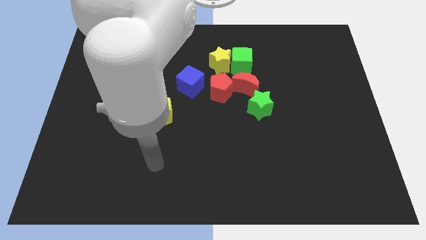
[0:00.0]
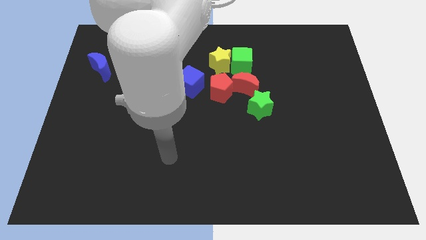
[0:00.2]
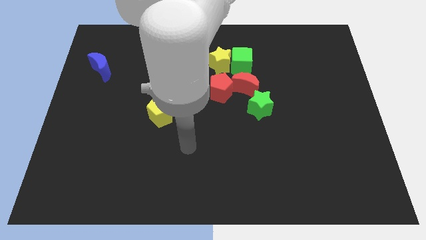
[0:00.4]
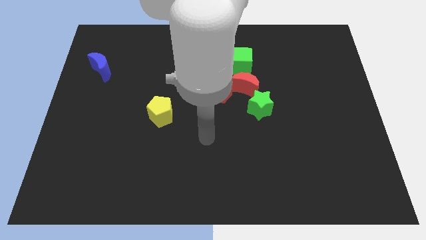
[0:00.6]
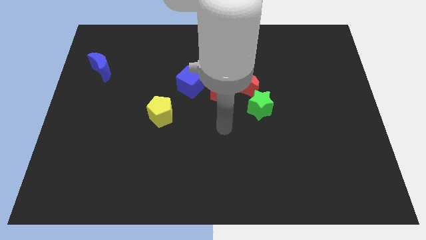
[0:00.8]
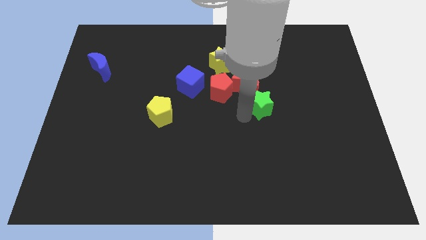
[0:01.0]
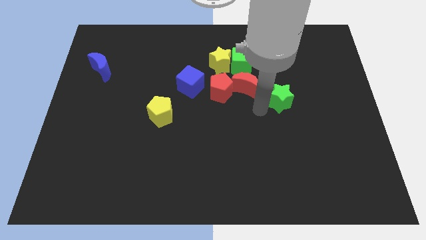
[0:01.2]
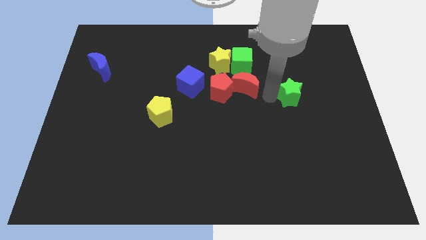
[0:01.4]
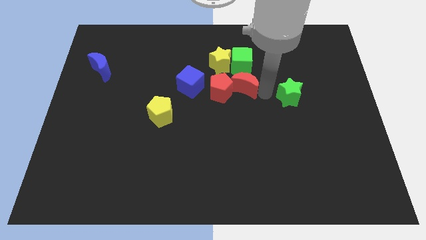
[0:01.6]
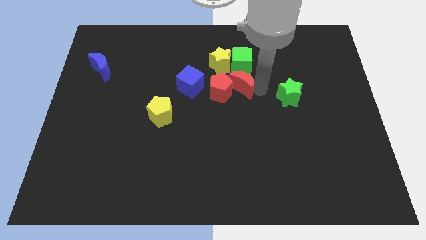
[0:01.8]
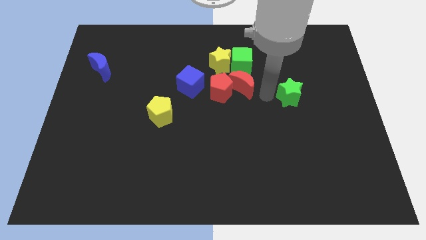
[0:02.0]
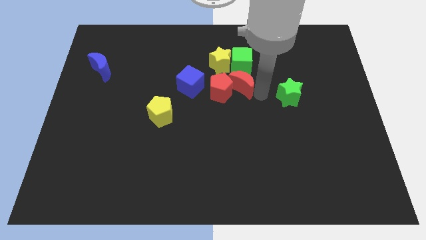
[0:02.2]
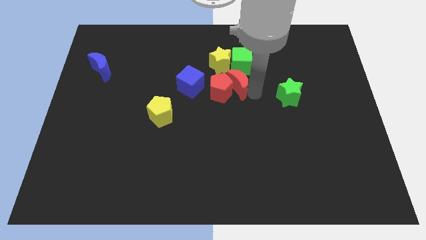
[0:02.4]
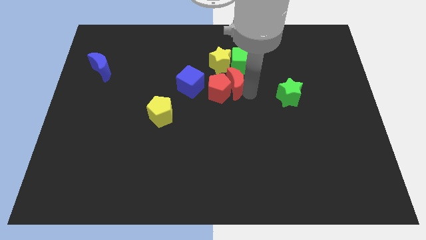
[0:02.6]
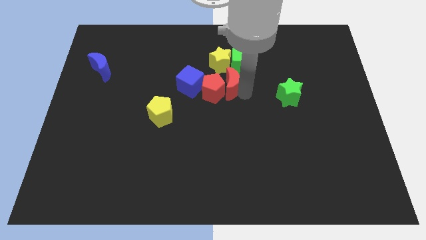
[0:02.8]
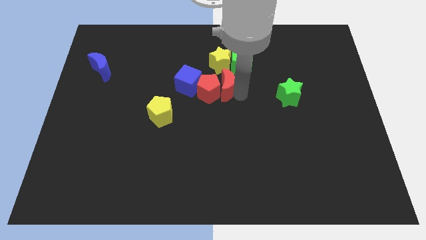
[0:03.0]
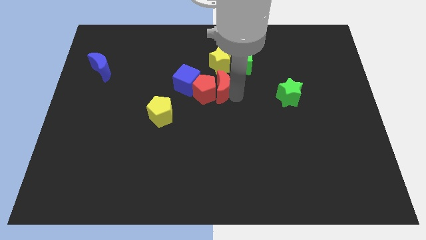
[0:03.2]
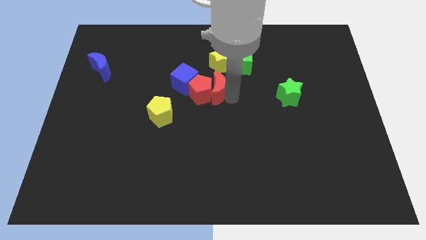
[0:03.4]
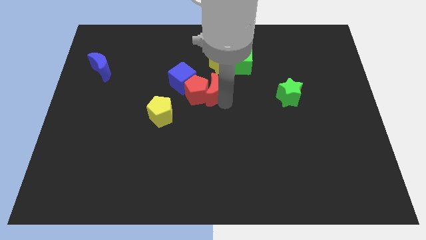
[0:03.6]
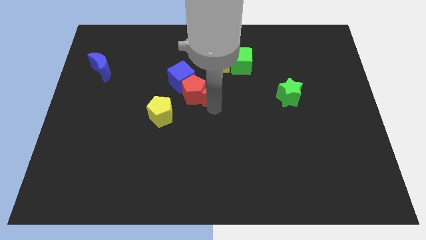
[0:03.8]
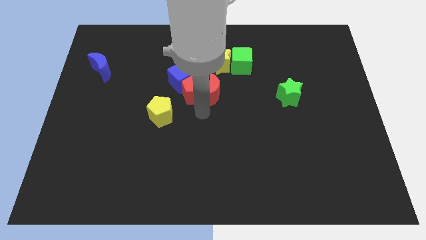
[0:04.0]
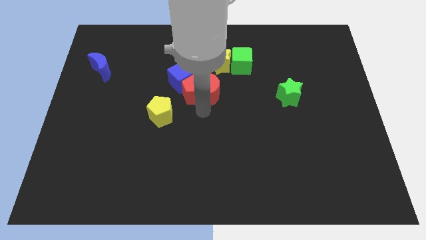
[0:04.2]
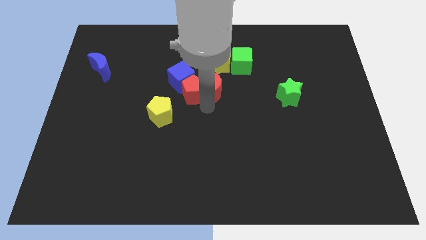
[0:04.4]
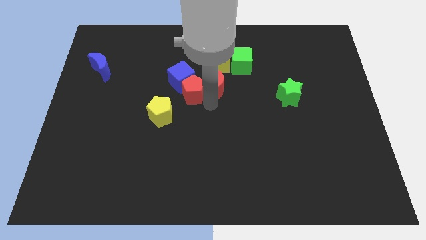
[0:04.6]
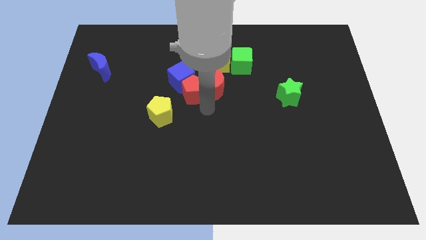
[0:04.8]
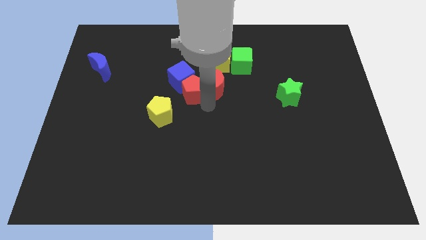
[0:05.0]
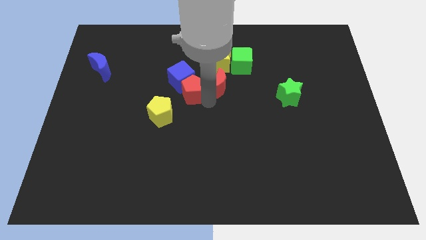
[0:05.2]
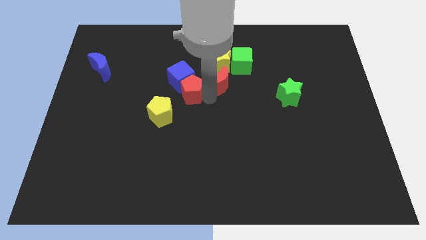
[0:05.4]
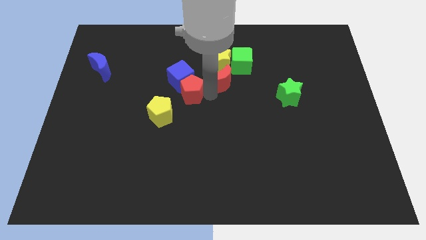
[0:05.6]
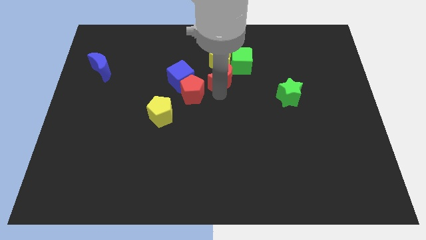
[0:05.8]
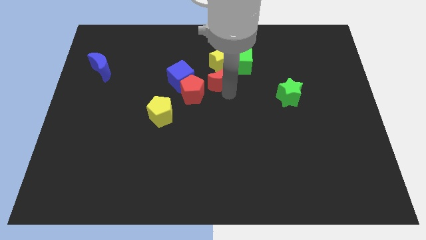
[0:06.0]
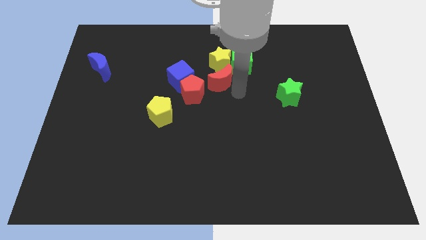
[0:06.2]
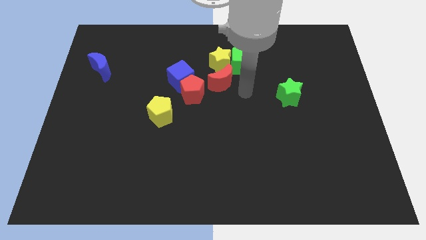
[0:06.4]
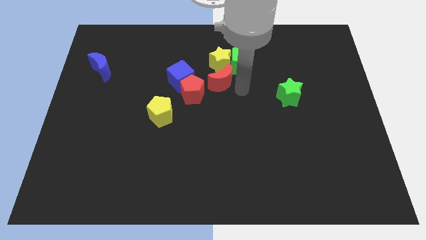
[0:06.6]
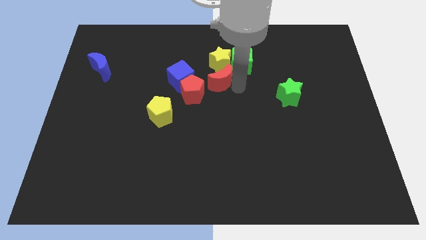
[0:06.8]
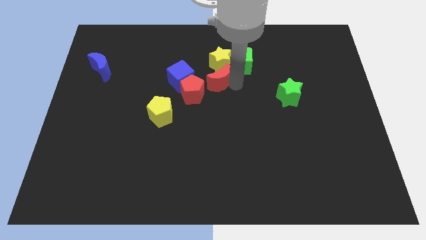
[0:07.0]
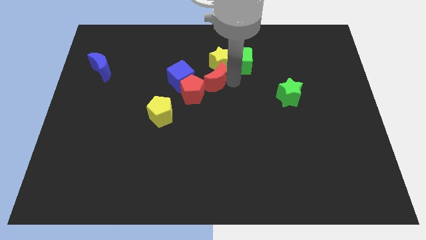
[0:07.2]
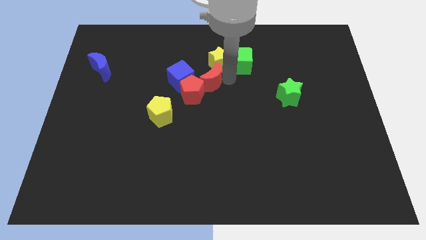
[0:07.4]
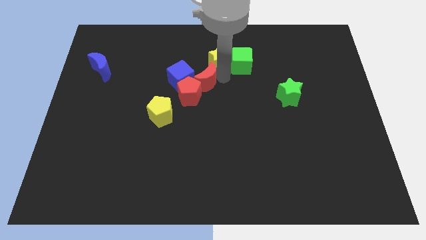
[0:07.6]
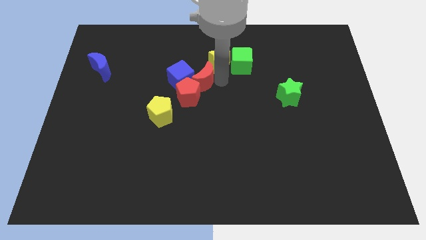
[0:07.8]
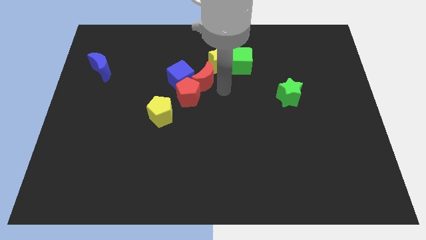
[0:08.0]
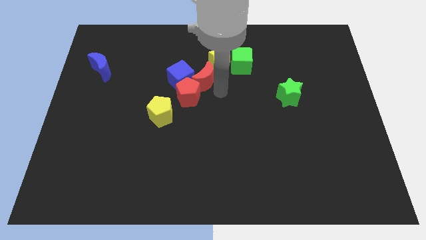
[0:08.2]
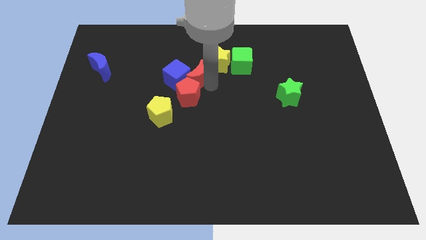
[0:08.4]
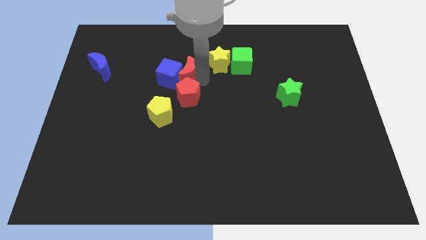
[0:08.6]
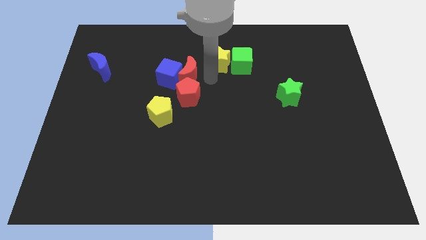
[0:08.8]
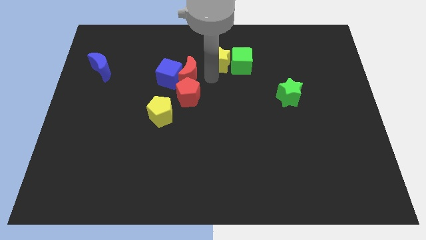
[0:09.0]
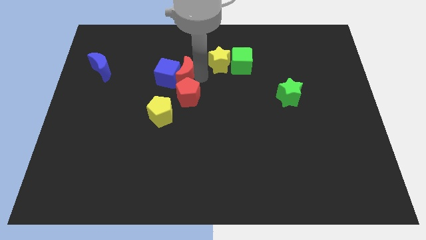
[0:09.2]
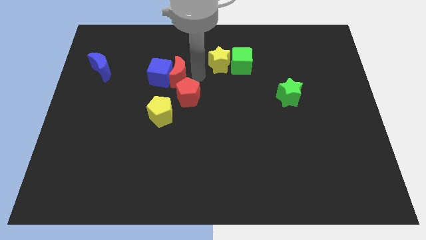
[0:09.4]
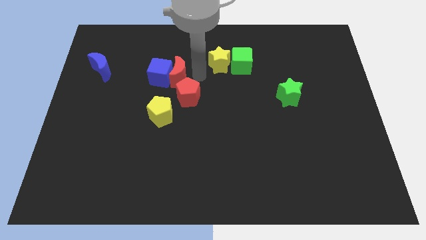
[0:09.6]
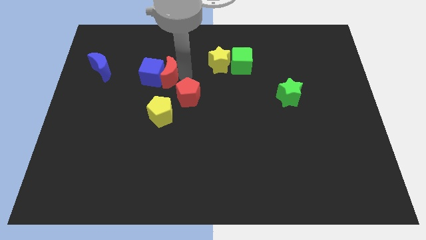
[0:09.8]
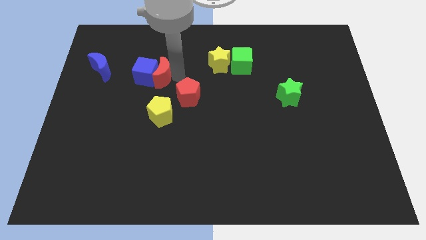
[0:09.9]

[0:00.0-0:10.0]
push the red moon to the left

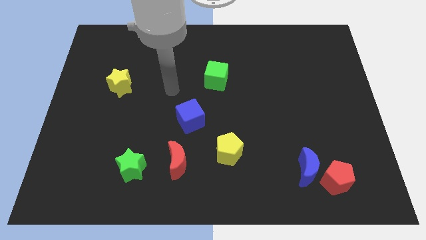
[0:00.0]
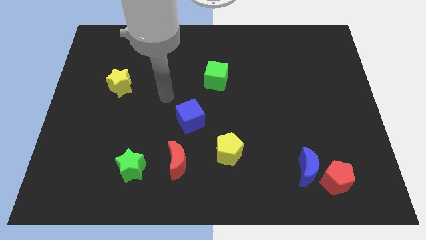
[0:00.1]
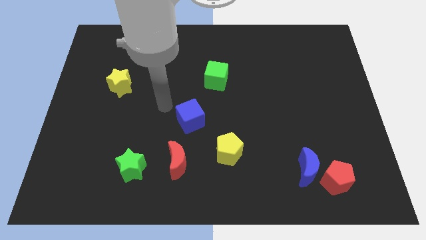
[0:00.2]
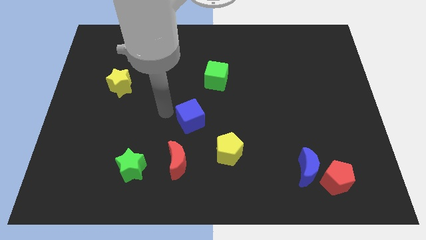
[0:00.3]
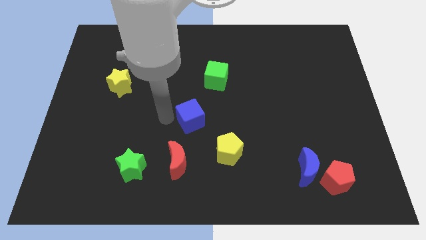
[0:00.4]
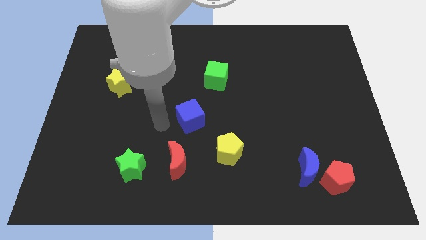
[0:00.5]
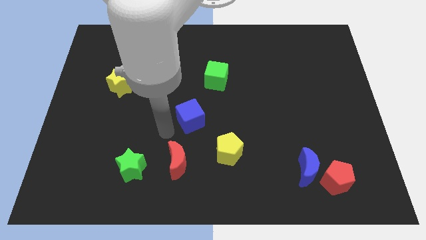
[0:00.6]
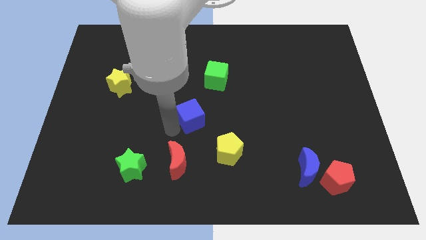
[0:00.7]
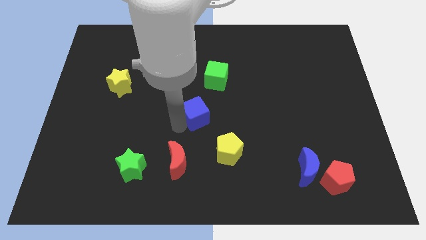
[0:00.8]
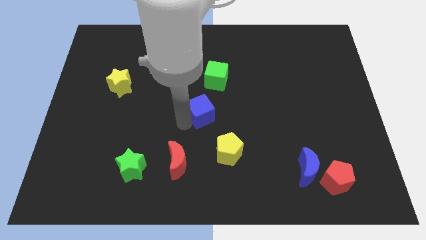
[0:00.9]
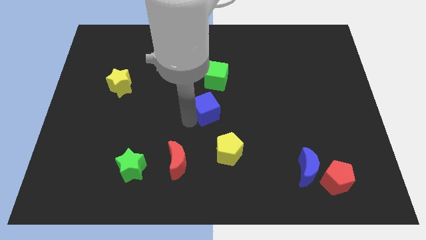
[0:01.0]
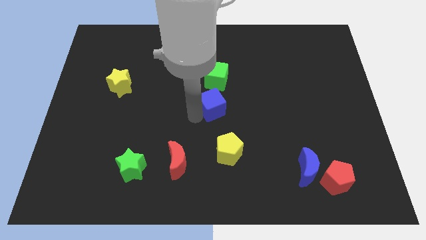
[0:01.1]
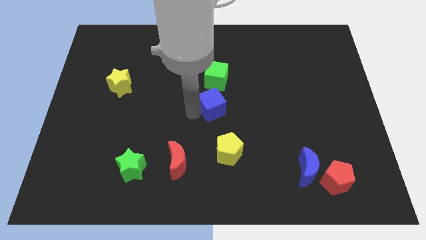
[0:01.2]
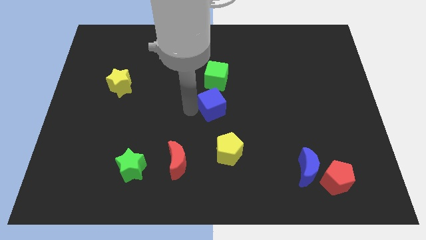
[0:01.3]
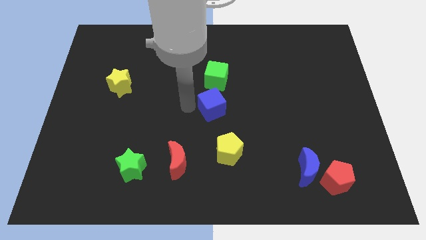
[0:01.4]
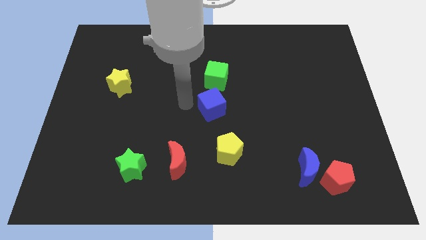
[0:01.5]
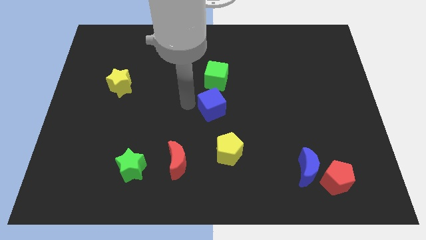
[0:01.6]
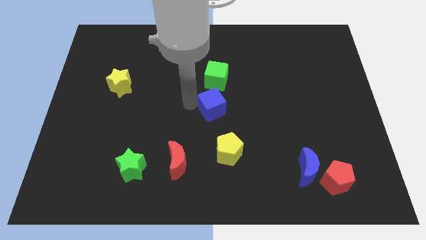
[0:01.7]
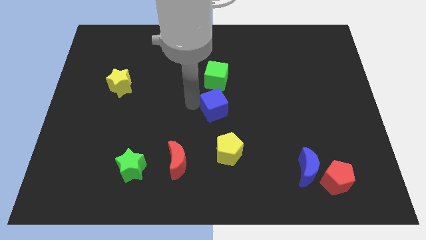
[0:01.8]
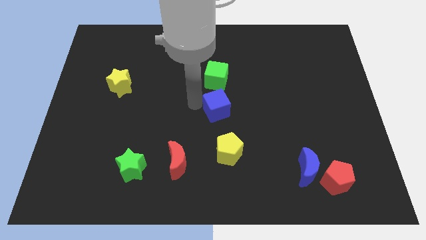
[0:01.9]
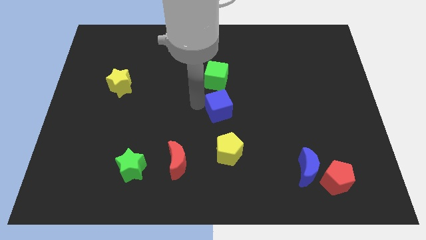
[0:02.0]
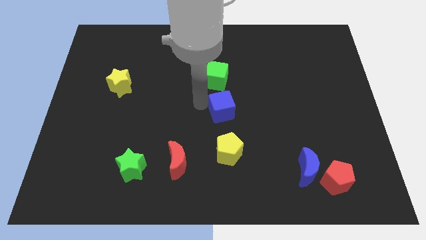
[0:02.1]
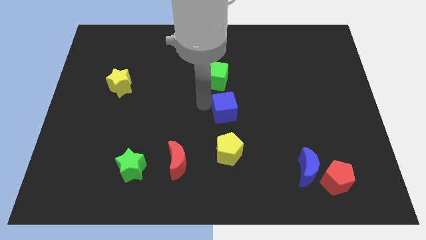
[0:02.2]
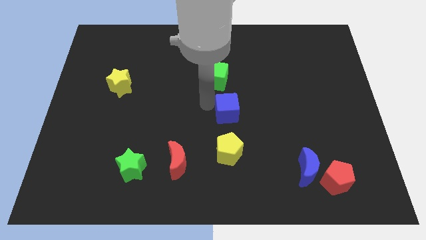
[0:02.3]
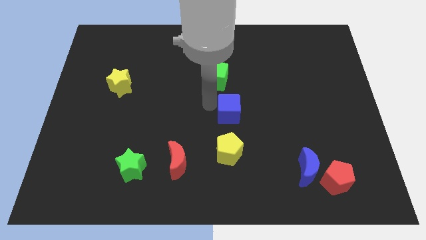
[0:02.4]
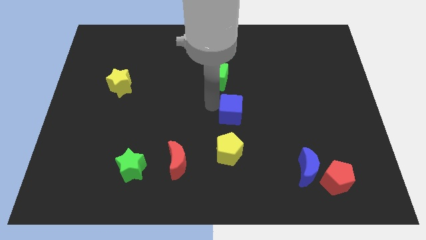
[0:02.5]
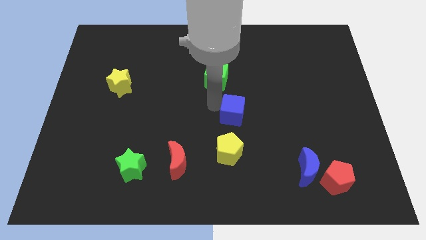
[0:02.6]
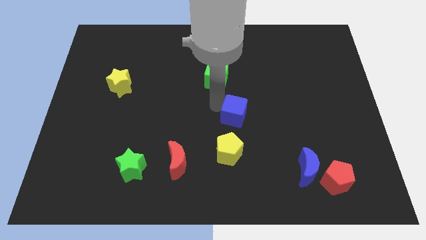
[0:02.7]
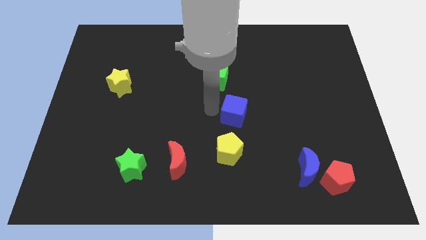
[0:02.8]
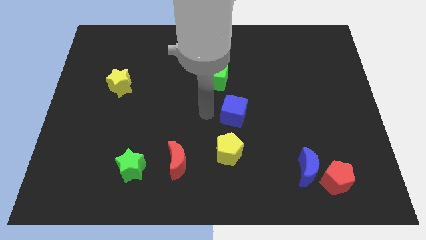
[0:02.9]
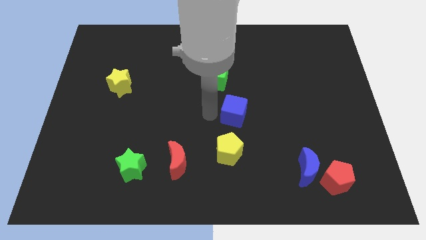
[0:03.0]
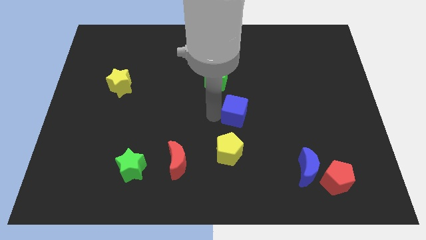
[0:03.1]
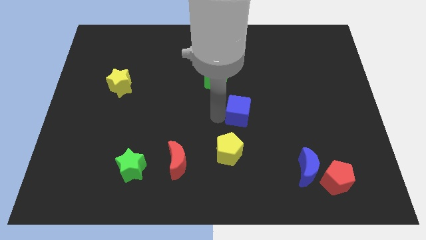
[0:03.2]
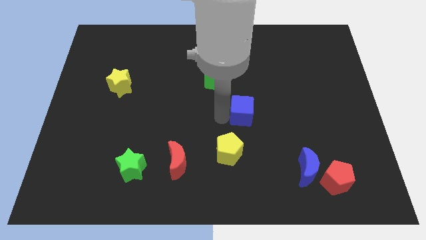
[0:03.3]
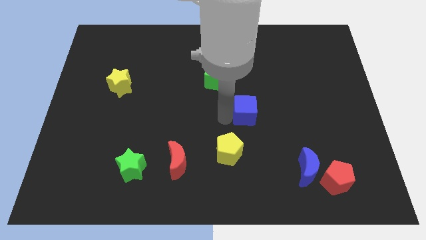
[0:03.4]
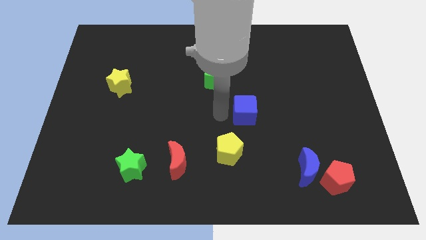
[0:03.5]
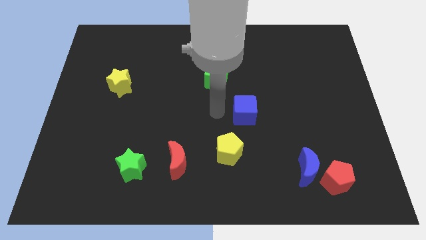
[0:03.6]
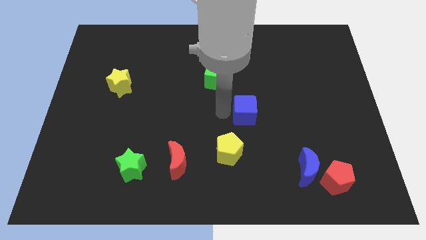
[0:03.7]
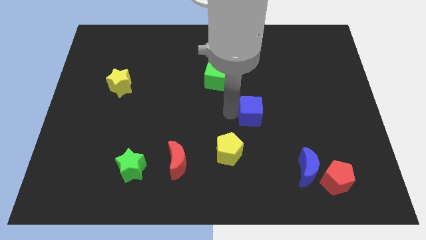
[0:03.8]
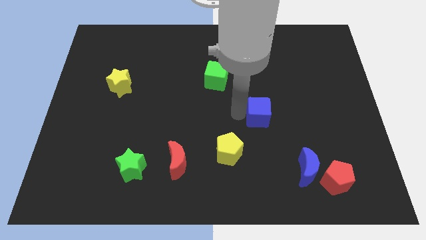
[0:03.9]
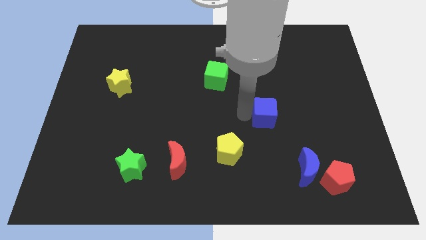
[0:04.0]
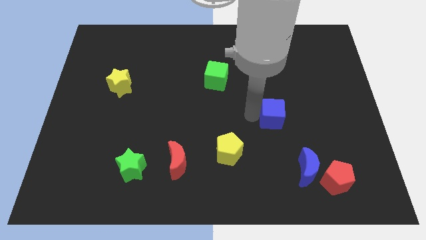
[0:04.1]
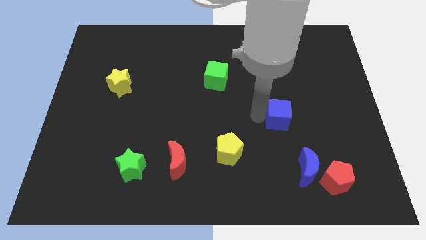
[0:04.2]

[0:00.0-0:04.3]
push the blue cube right
